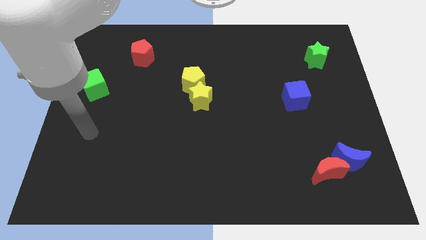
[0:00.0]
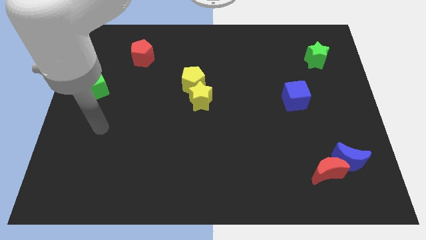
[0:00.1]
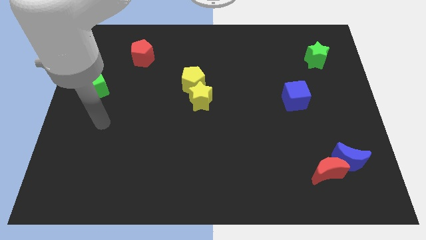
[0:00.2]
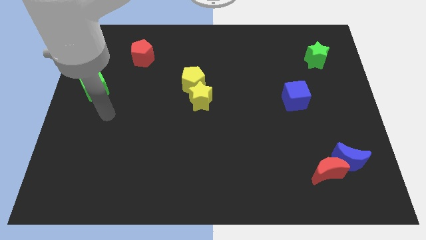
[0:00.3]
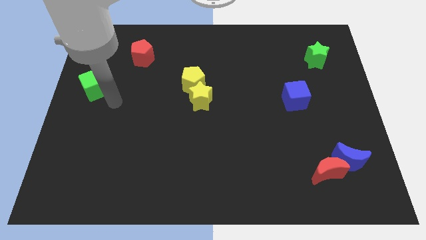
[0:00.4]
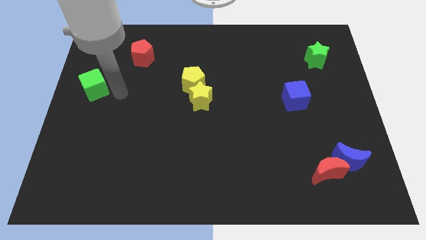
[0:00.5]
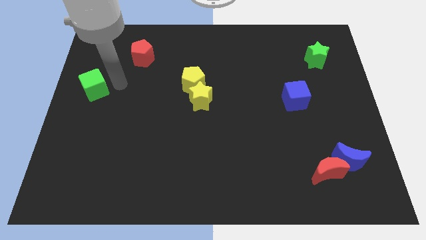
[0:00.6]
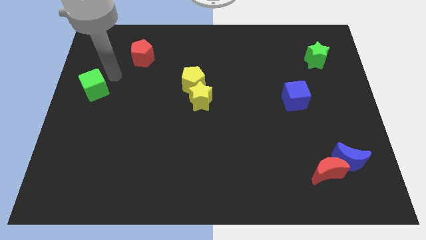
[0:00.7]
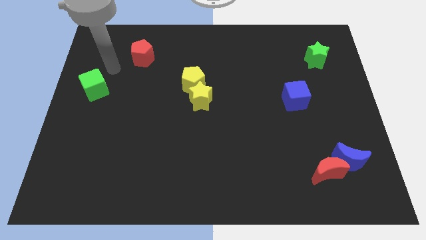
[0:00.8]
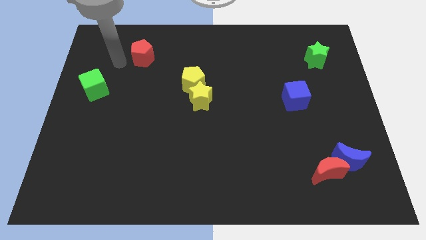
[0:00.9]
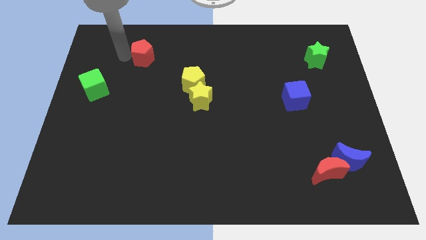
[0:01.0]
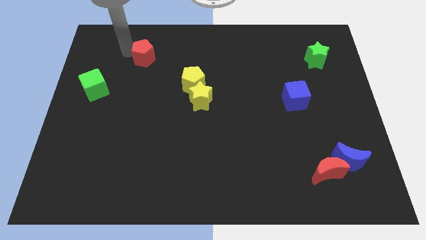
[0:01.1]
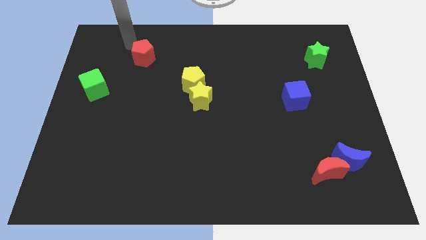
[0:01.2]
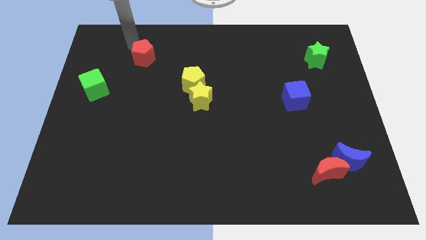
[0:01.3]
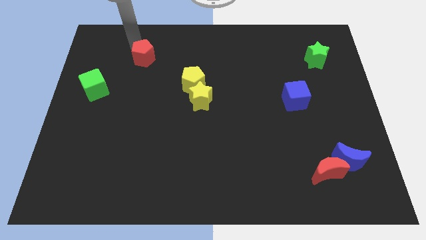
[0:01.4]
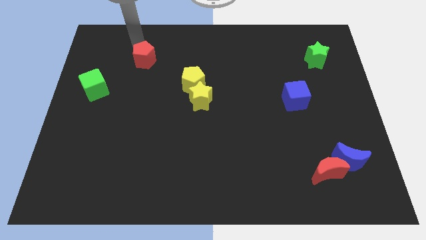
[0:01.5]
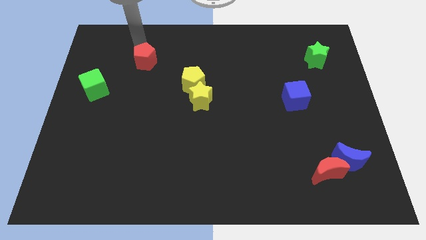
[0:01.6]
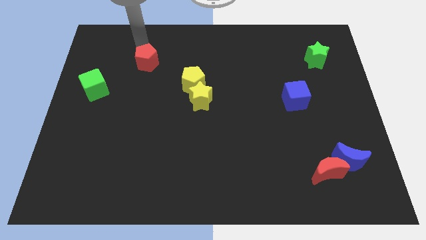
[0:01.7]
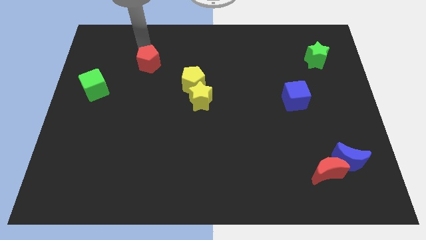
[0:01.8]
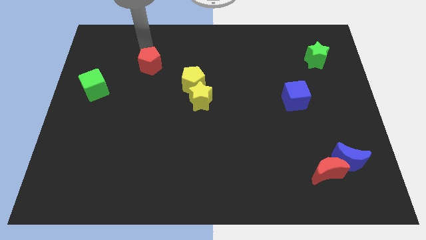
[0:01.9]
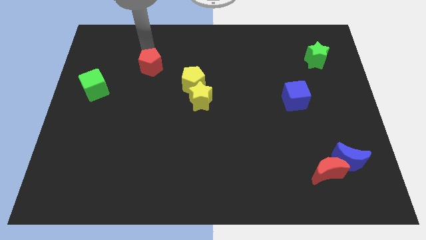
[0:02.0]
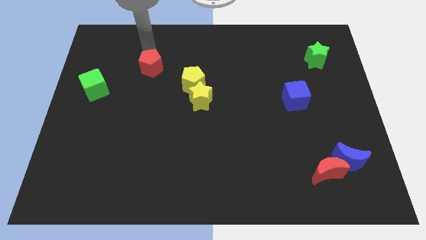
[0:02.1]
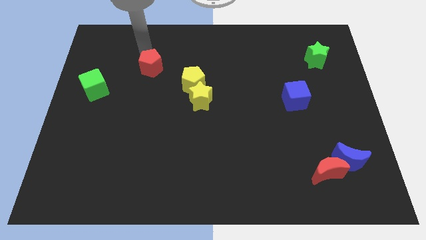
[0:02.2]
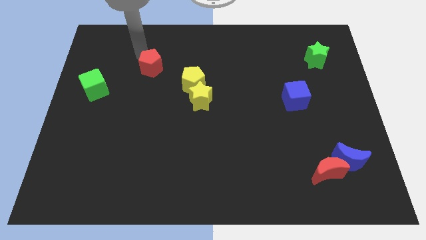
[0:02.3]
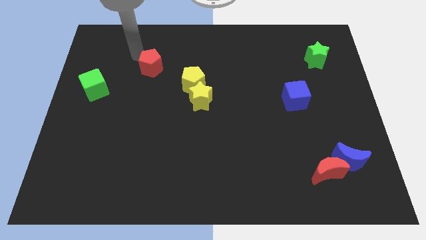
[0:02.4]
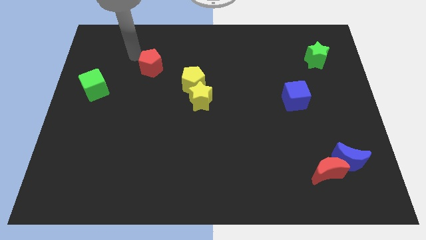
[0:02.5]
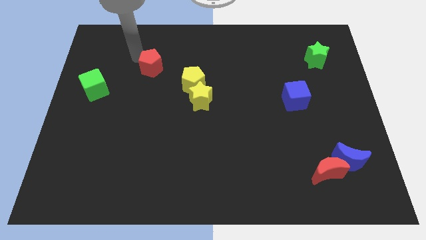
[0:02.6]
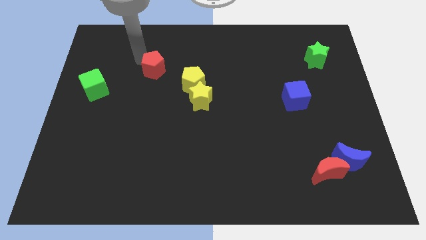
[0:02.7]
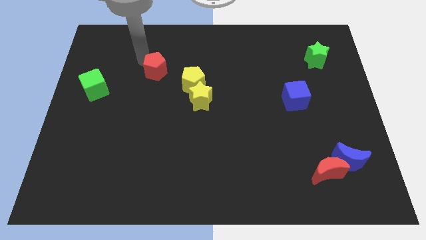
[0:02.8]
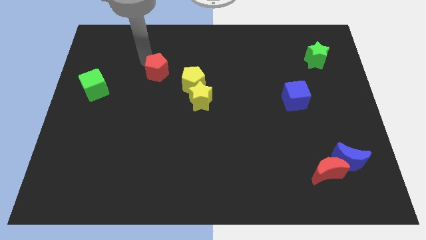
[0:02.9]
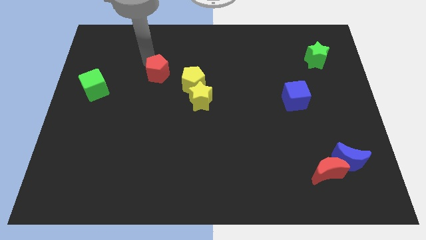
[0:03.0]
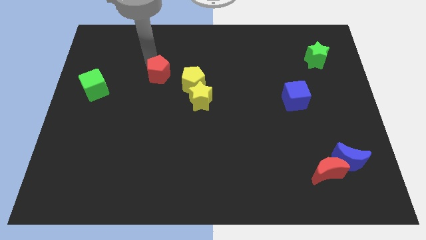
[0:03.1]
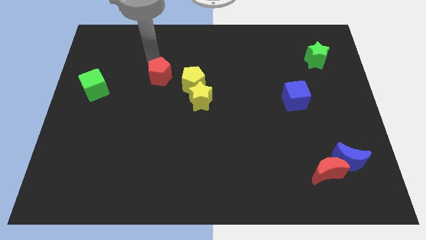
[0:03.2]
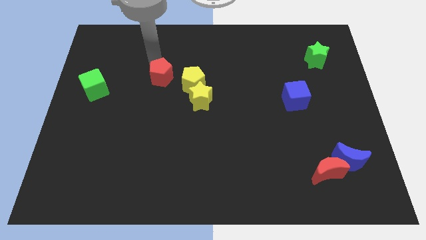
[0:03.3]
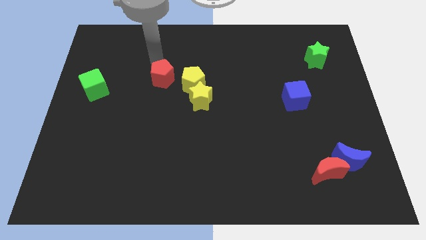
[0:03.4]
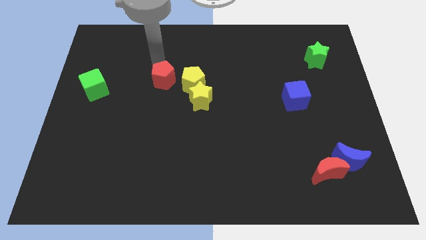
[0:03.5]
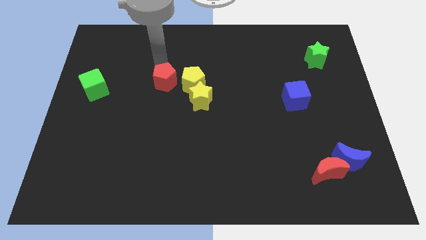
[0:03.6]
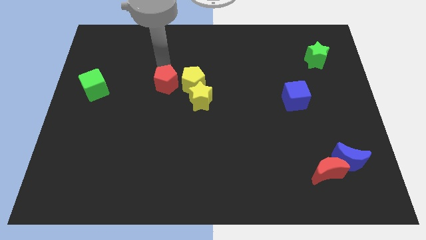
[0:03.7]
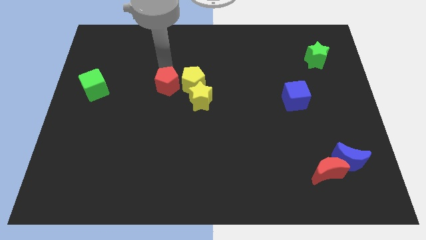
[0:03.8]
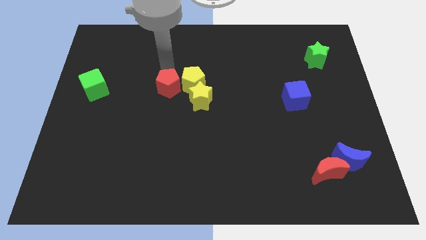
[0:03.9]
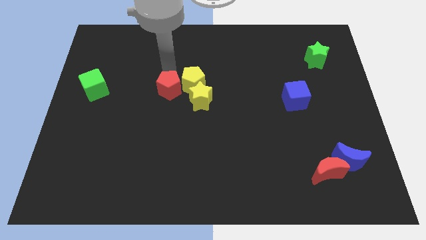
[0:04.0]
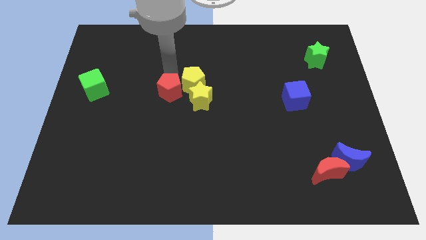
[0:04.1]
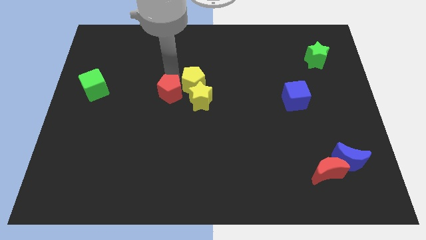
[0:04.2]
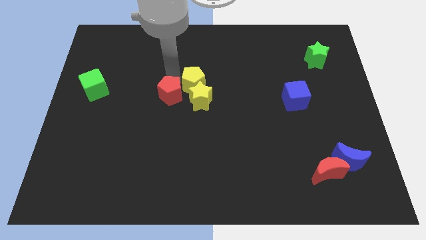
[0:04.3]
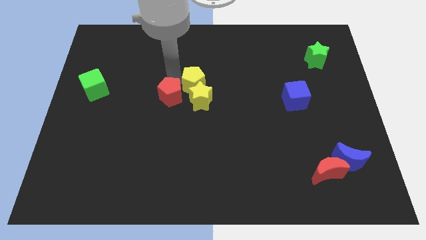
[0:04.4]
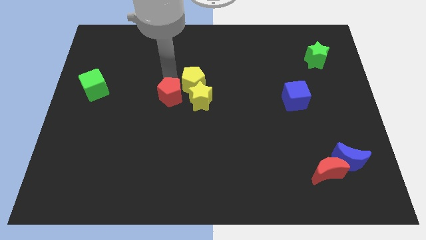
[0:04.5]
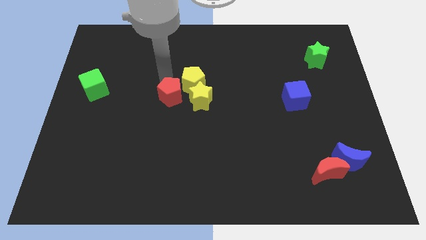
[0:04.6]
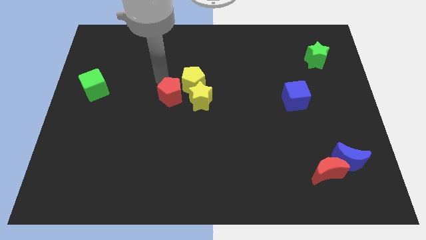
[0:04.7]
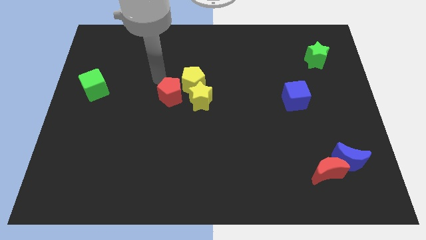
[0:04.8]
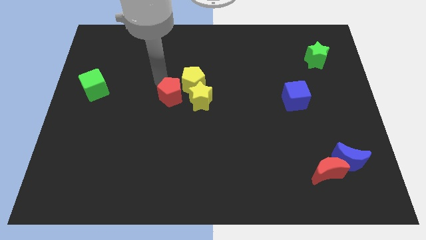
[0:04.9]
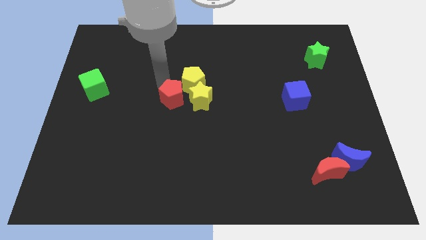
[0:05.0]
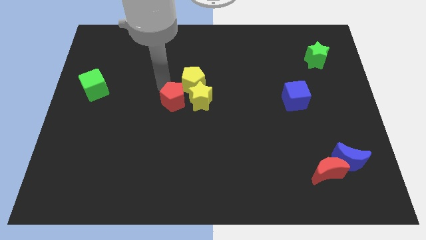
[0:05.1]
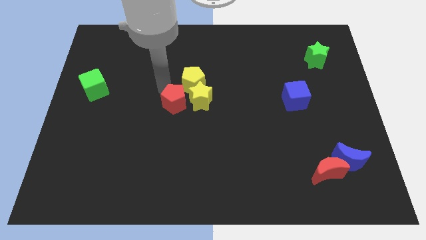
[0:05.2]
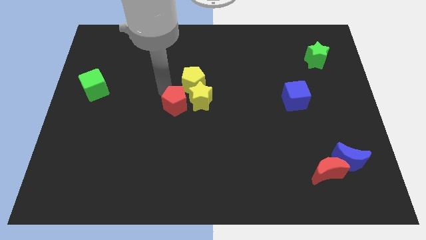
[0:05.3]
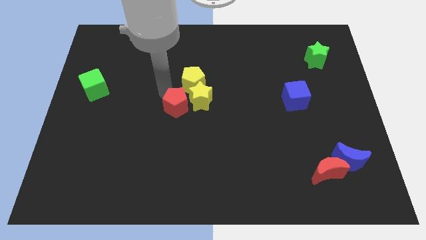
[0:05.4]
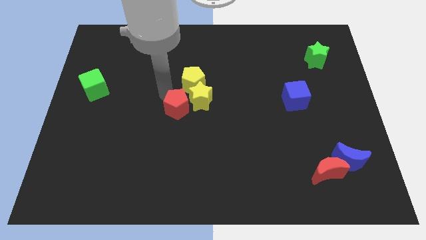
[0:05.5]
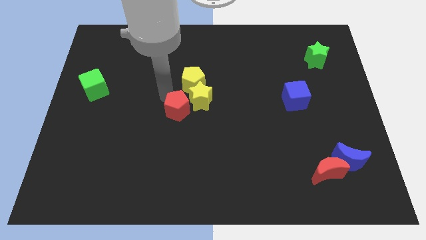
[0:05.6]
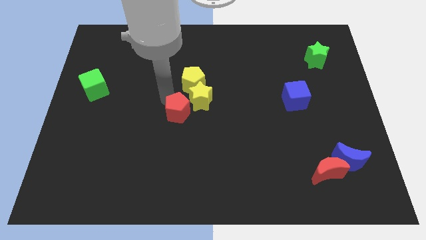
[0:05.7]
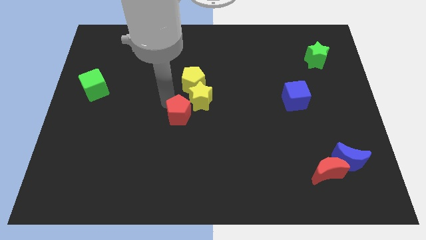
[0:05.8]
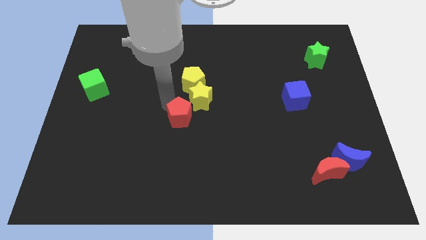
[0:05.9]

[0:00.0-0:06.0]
push the red pentagon downwards and to the right diagonally

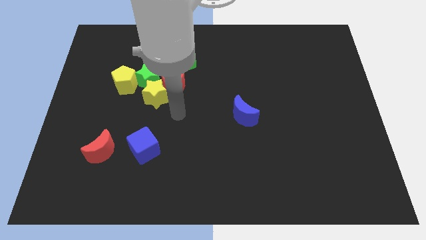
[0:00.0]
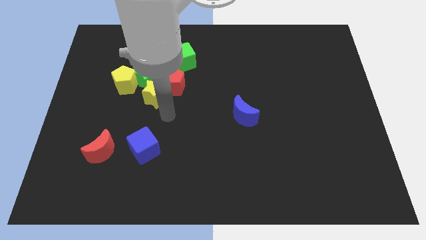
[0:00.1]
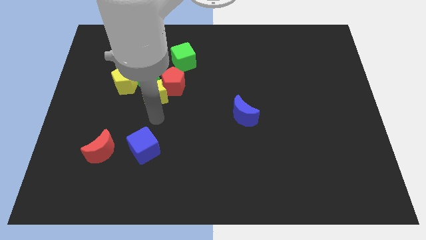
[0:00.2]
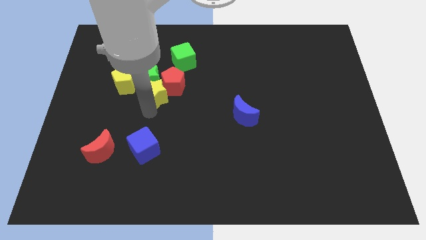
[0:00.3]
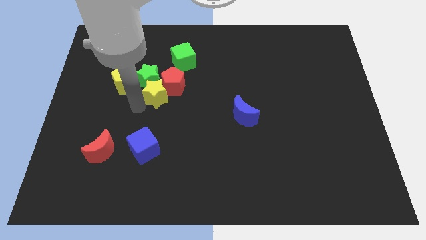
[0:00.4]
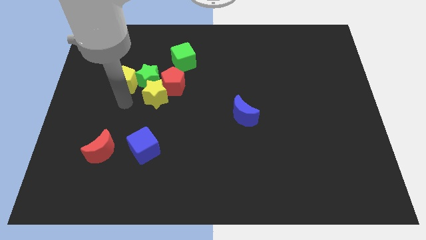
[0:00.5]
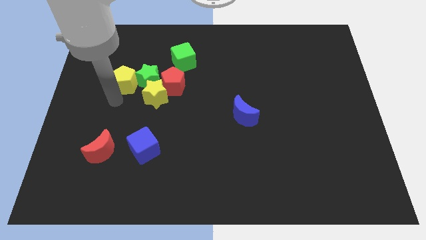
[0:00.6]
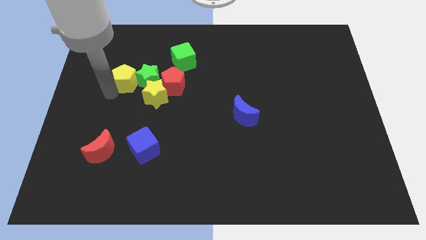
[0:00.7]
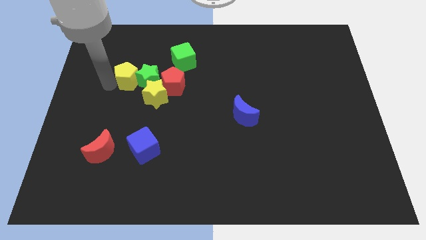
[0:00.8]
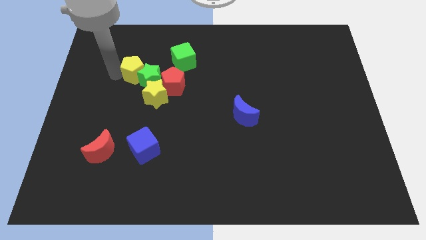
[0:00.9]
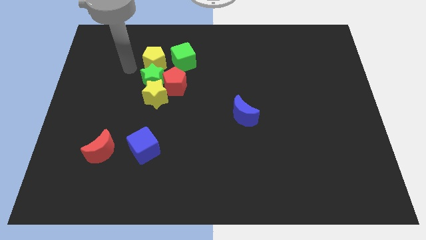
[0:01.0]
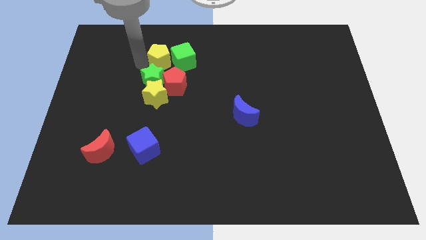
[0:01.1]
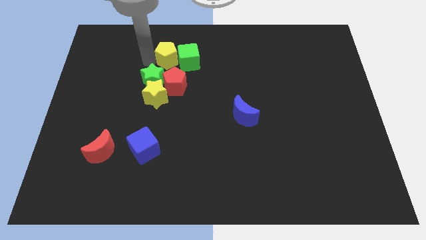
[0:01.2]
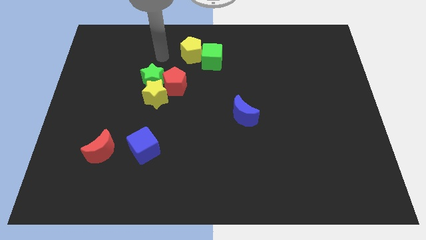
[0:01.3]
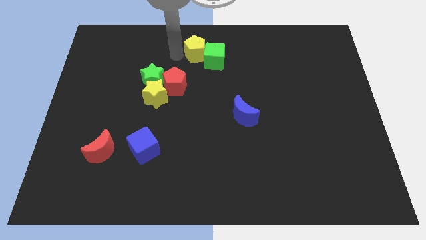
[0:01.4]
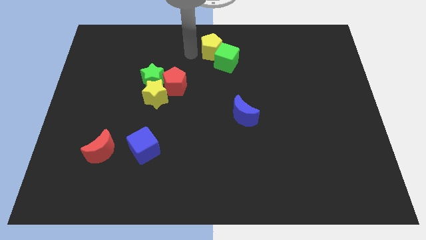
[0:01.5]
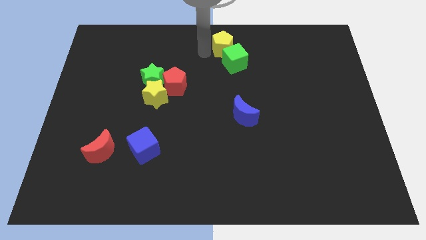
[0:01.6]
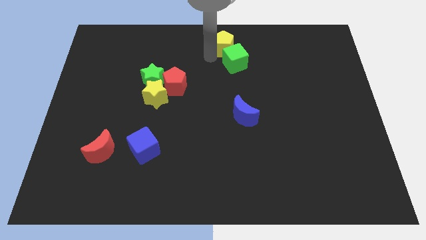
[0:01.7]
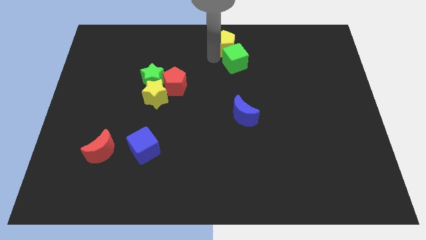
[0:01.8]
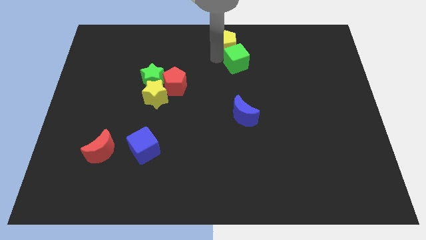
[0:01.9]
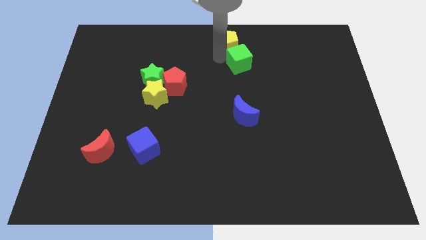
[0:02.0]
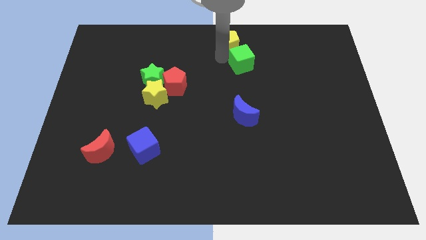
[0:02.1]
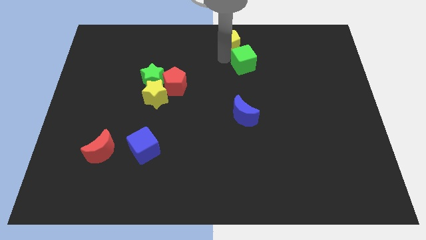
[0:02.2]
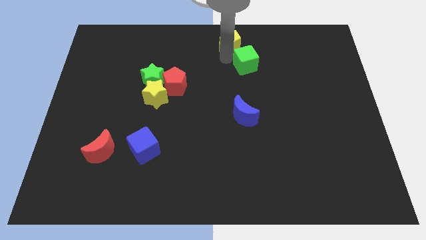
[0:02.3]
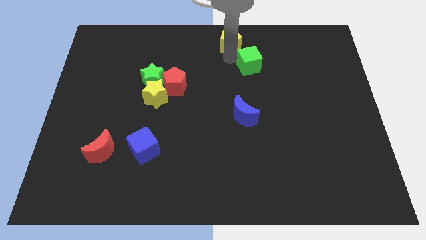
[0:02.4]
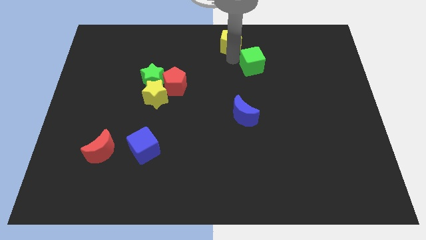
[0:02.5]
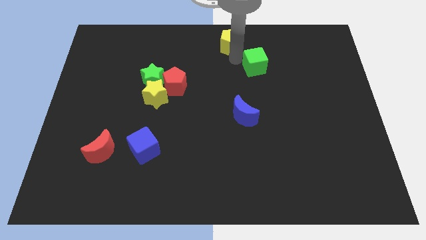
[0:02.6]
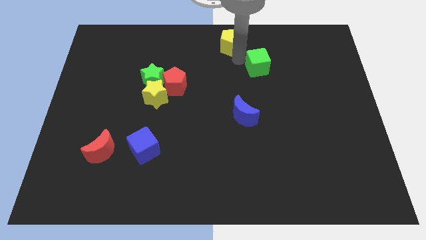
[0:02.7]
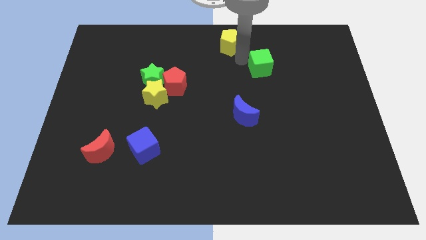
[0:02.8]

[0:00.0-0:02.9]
slide the green cube to the right
